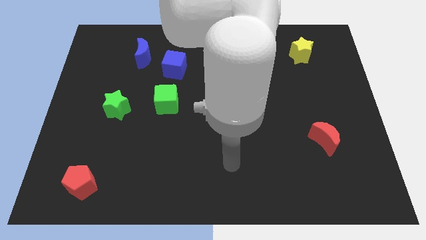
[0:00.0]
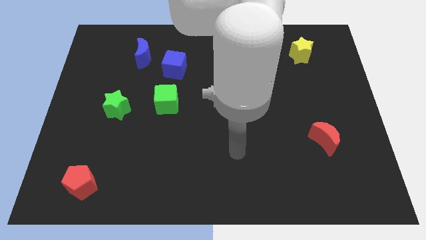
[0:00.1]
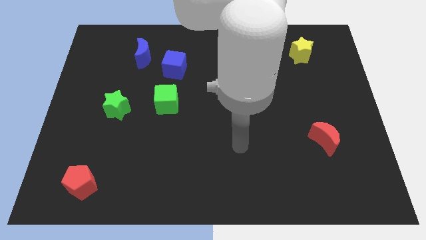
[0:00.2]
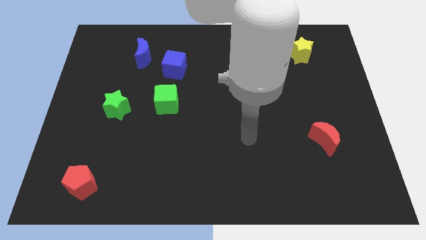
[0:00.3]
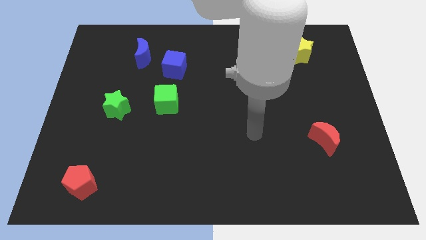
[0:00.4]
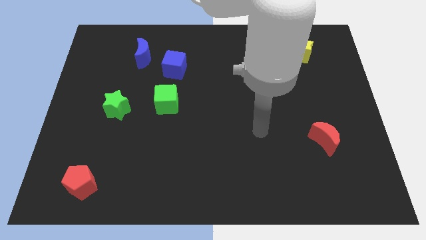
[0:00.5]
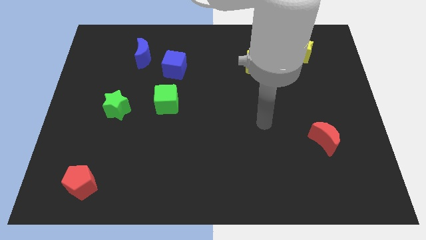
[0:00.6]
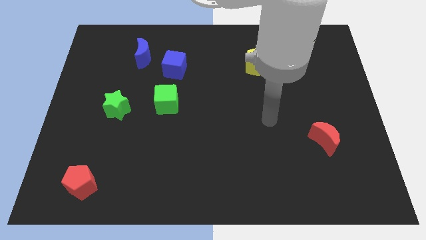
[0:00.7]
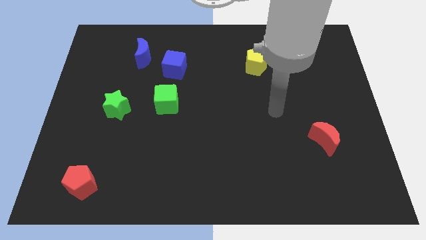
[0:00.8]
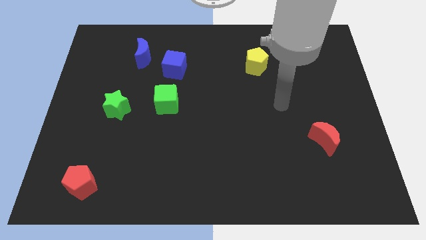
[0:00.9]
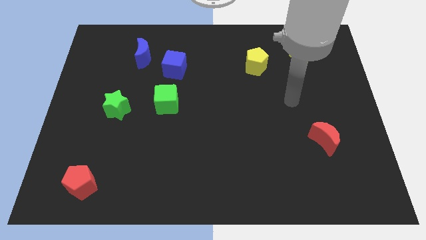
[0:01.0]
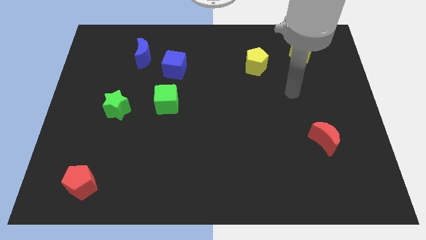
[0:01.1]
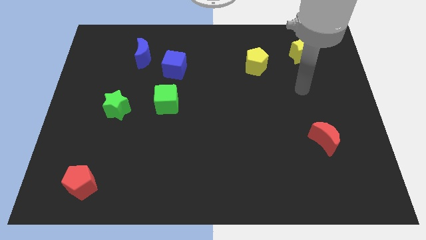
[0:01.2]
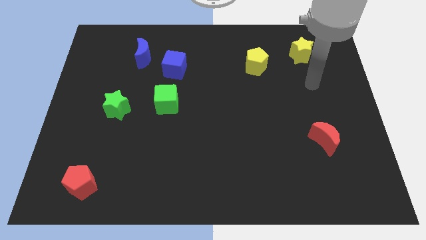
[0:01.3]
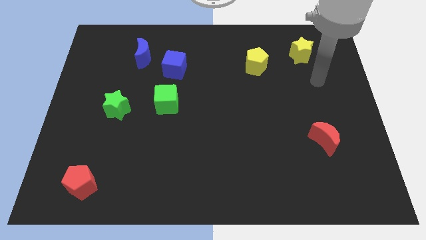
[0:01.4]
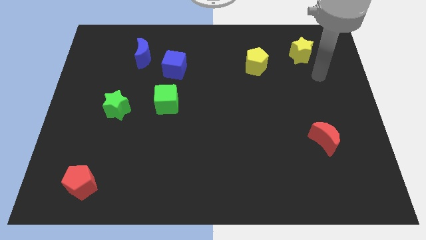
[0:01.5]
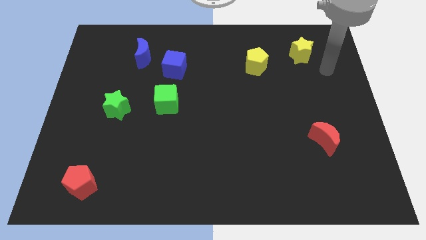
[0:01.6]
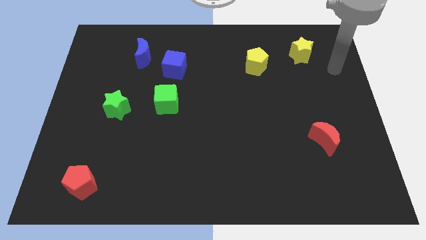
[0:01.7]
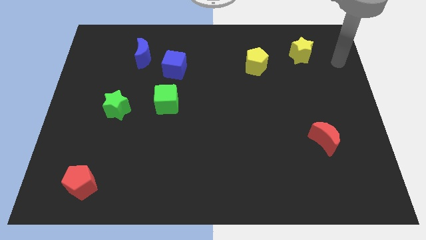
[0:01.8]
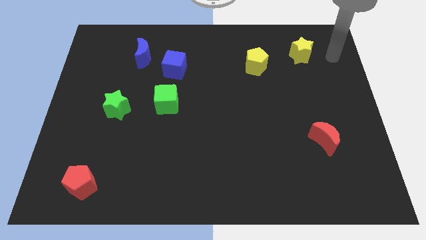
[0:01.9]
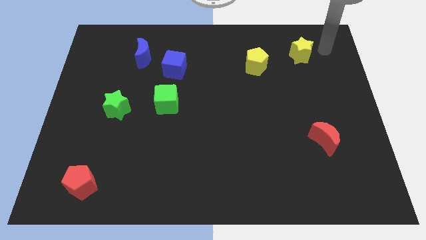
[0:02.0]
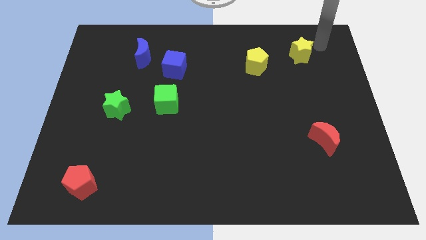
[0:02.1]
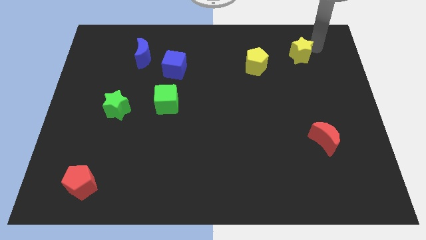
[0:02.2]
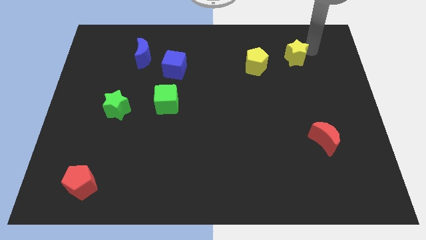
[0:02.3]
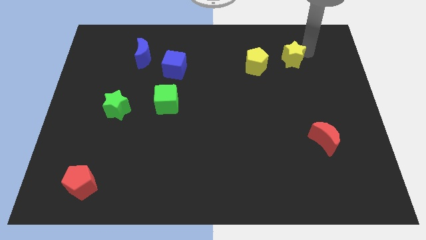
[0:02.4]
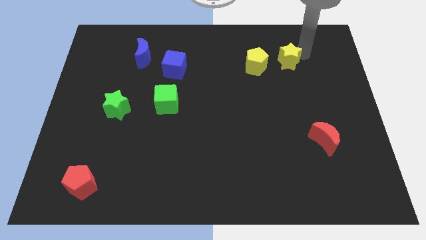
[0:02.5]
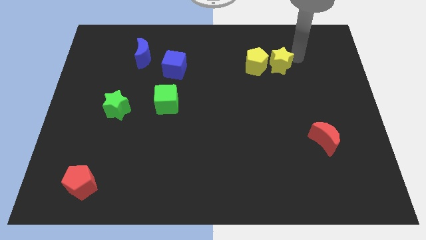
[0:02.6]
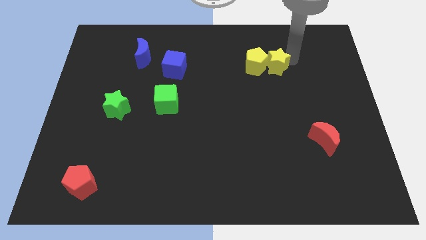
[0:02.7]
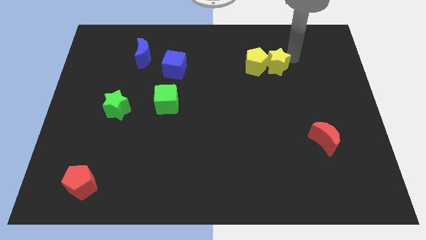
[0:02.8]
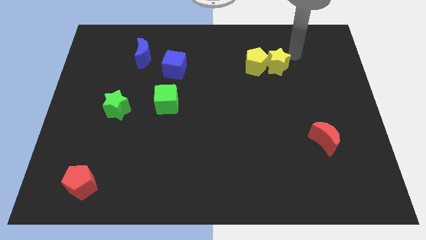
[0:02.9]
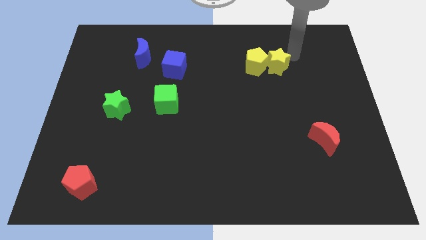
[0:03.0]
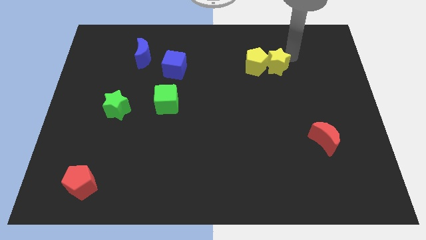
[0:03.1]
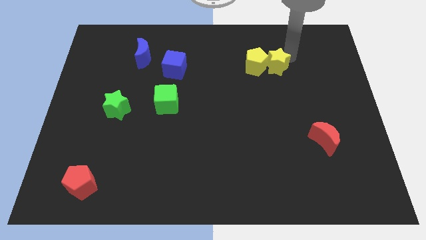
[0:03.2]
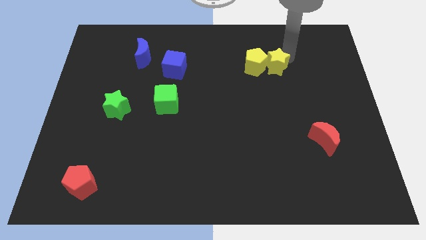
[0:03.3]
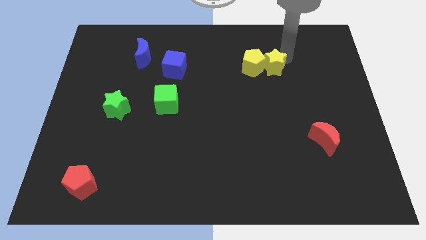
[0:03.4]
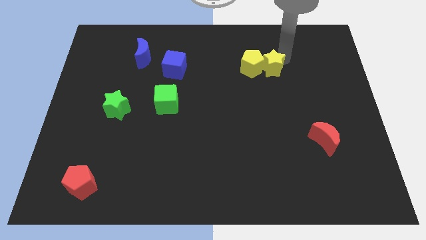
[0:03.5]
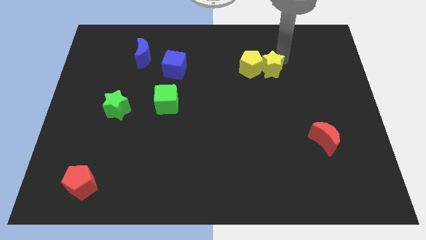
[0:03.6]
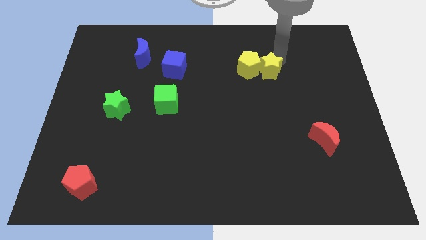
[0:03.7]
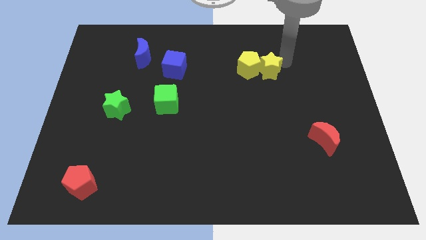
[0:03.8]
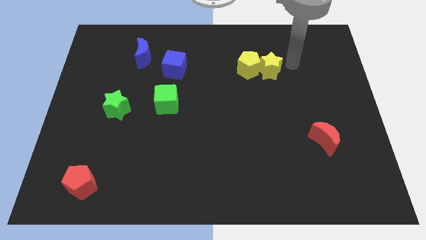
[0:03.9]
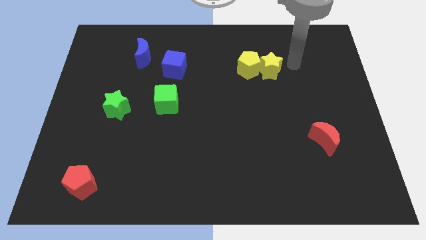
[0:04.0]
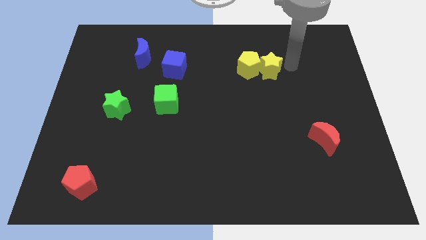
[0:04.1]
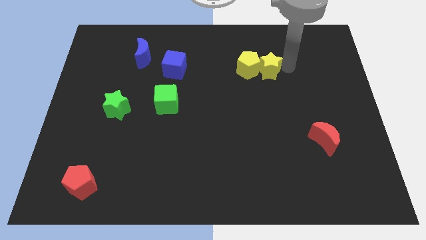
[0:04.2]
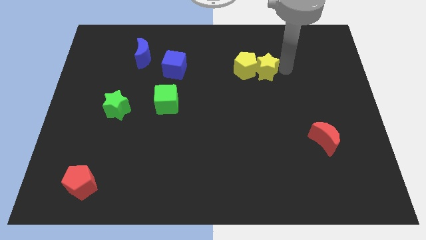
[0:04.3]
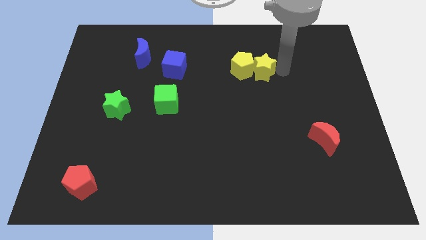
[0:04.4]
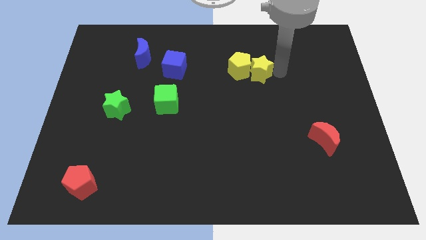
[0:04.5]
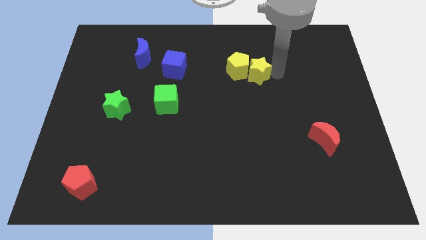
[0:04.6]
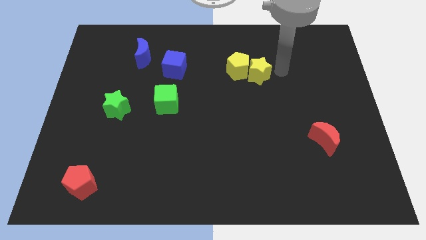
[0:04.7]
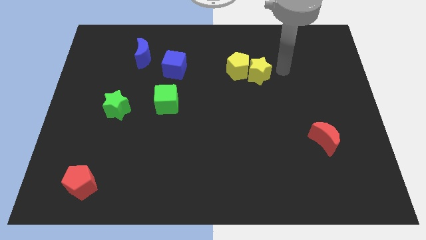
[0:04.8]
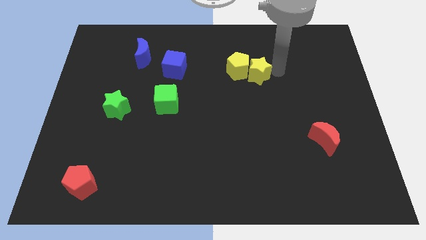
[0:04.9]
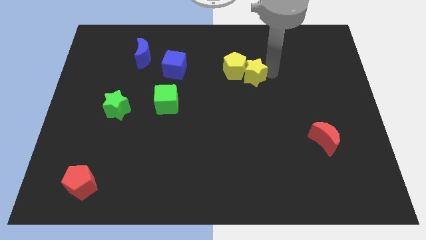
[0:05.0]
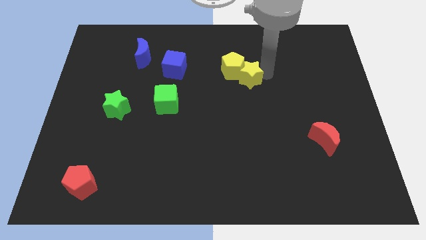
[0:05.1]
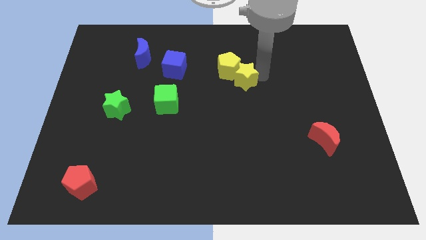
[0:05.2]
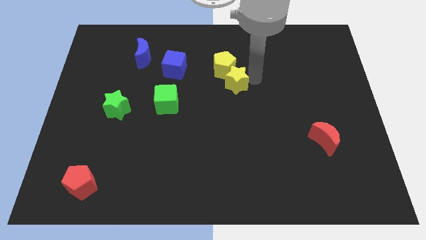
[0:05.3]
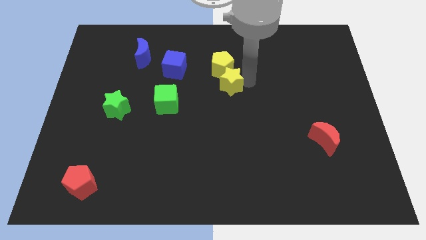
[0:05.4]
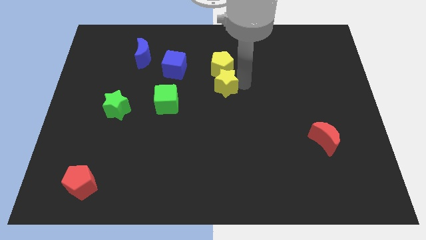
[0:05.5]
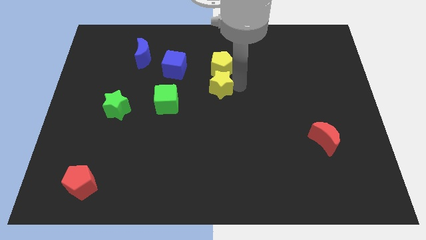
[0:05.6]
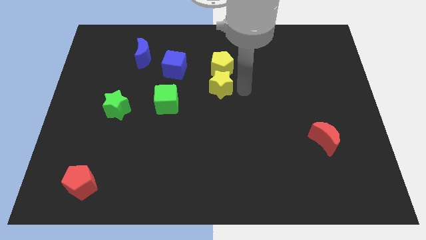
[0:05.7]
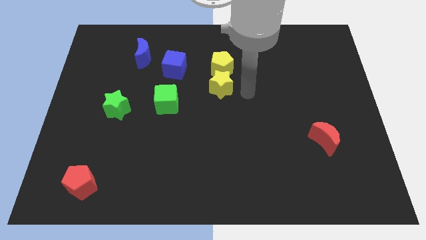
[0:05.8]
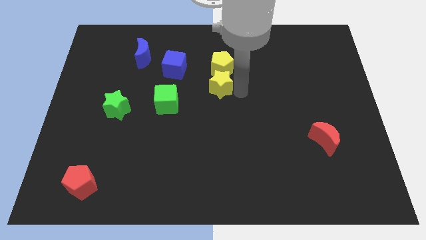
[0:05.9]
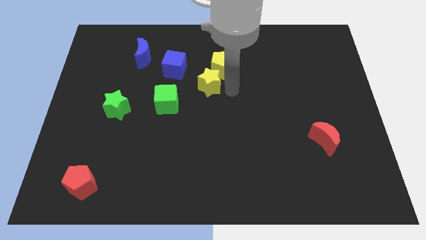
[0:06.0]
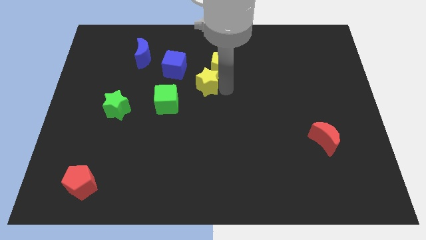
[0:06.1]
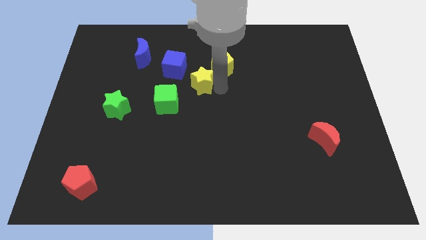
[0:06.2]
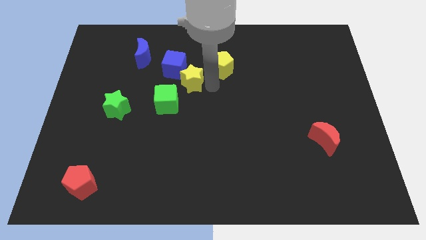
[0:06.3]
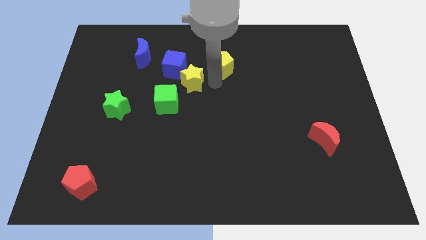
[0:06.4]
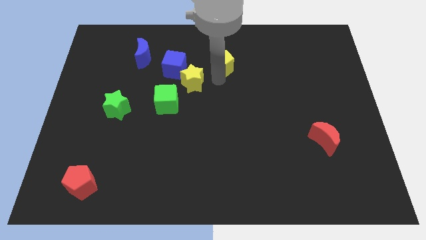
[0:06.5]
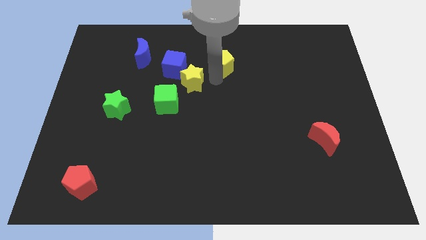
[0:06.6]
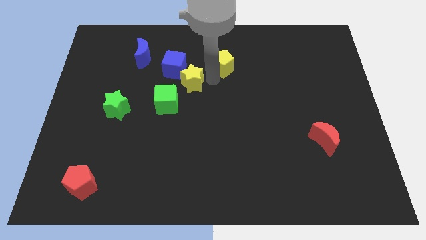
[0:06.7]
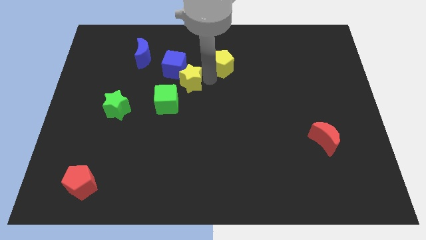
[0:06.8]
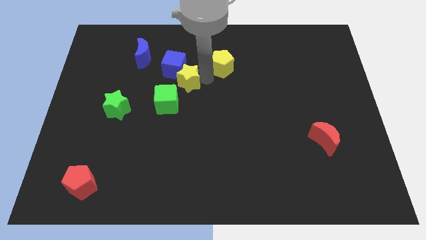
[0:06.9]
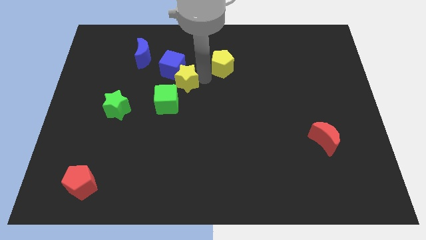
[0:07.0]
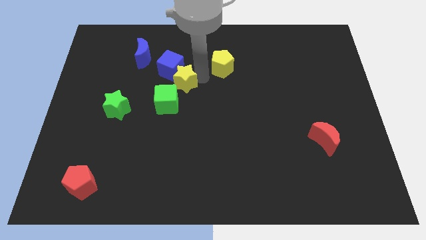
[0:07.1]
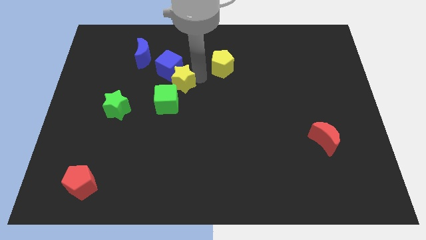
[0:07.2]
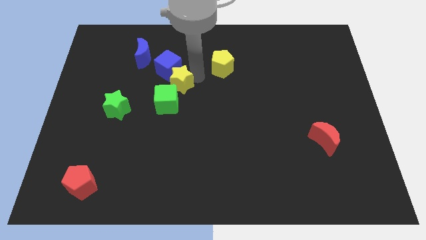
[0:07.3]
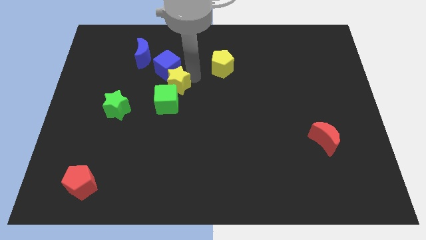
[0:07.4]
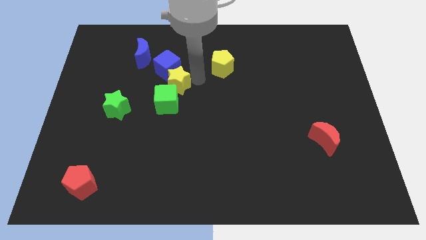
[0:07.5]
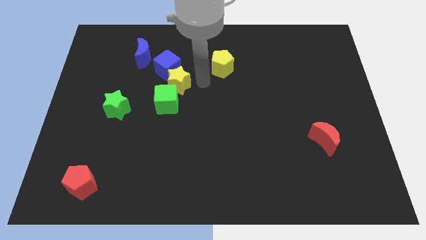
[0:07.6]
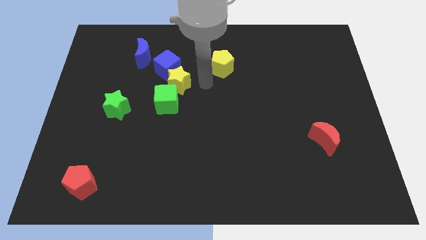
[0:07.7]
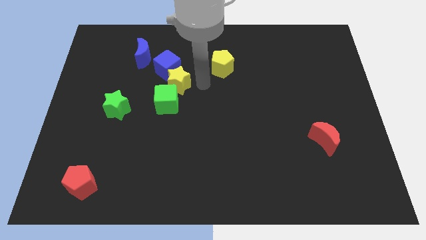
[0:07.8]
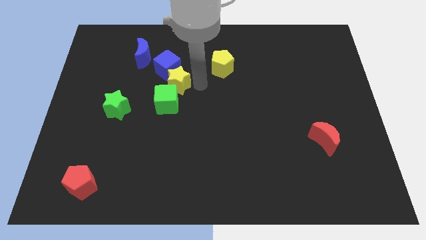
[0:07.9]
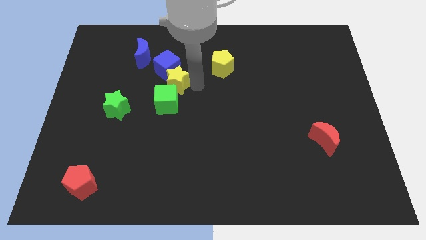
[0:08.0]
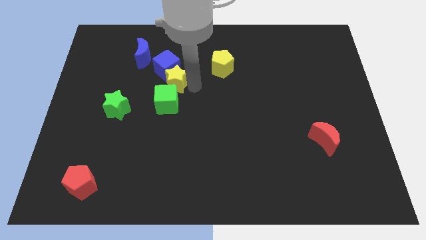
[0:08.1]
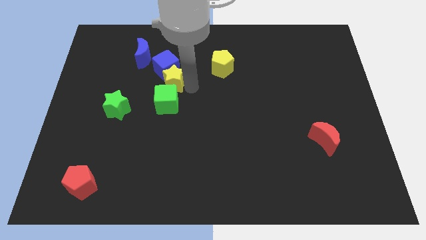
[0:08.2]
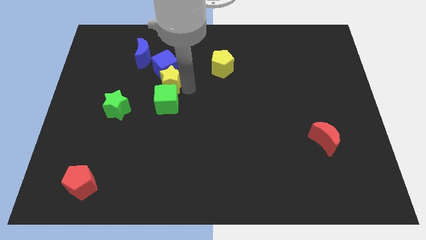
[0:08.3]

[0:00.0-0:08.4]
push the yellow star diagonally up and to the left of the green cube
